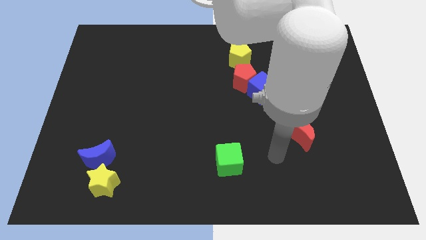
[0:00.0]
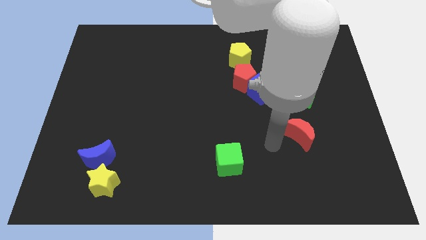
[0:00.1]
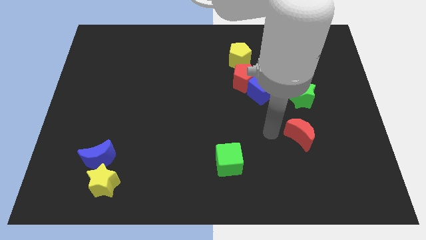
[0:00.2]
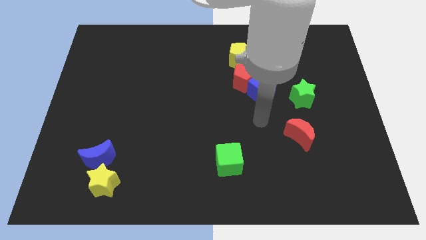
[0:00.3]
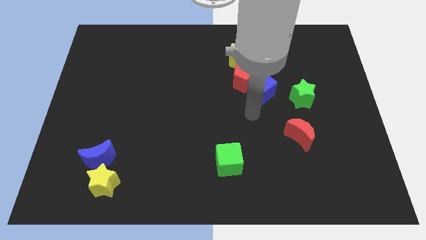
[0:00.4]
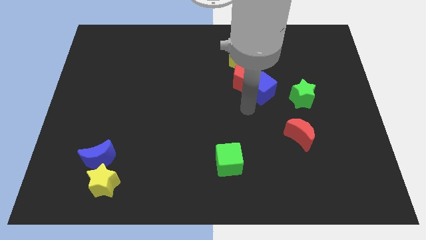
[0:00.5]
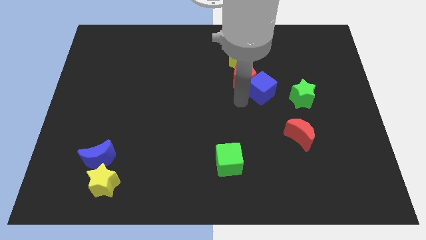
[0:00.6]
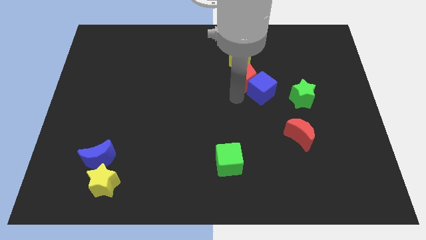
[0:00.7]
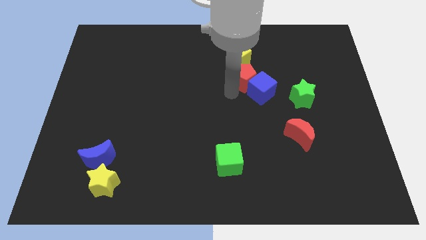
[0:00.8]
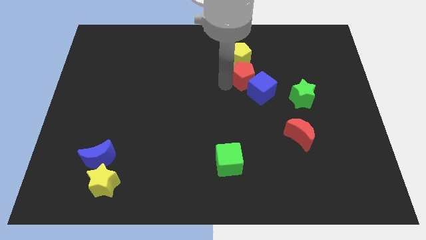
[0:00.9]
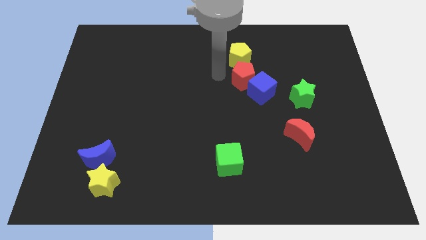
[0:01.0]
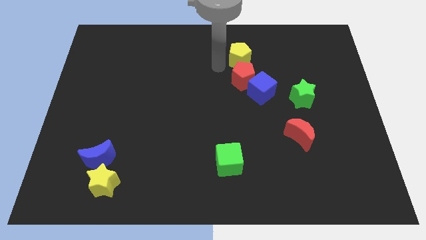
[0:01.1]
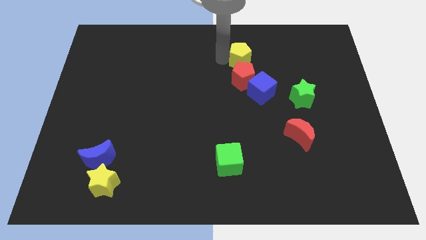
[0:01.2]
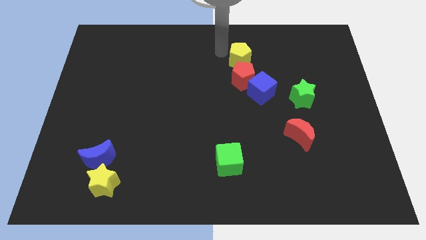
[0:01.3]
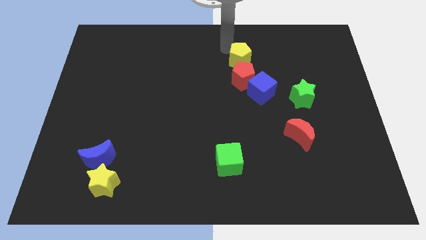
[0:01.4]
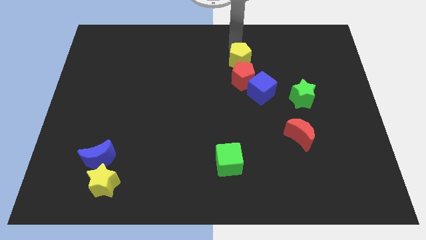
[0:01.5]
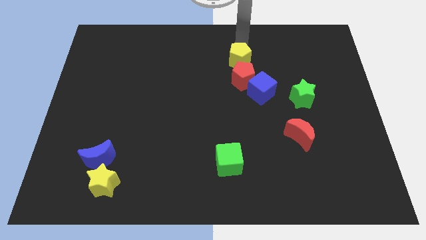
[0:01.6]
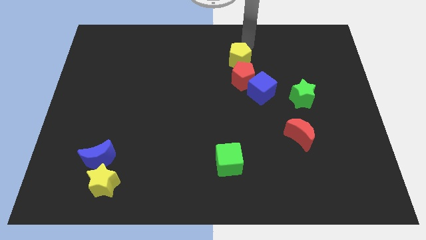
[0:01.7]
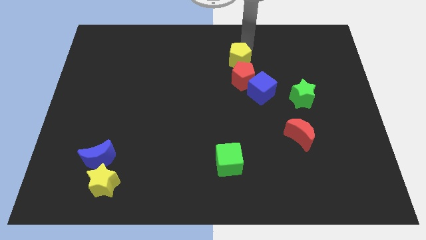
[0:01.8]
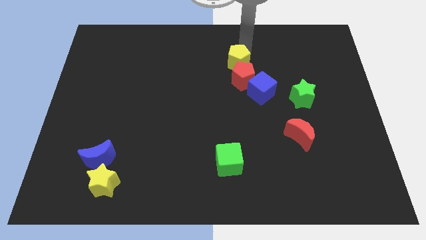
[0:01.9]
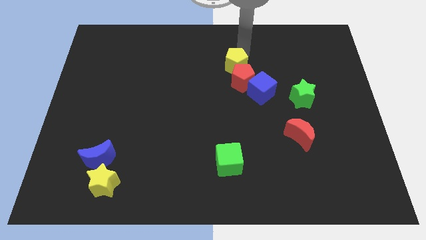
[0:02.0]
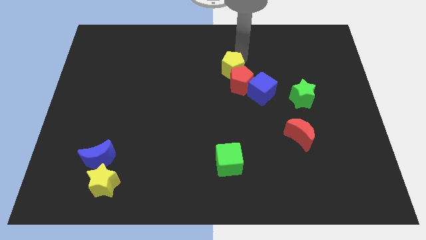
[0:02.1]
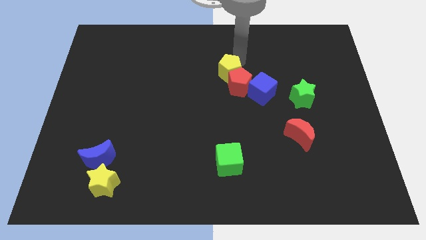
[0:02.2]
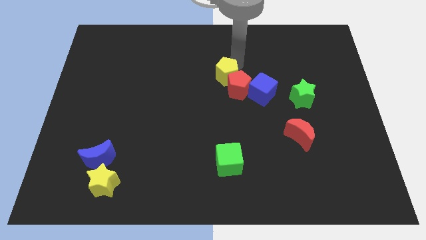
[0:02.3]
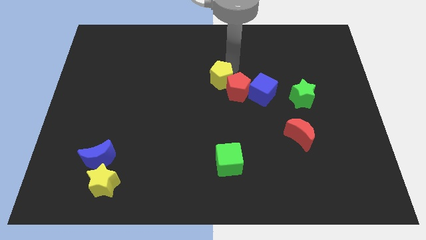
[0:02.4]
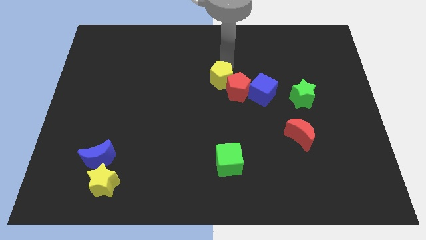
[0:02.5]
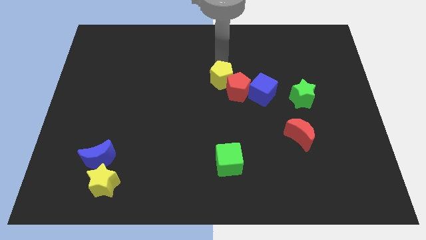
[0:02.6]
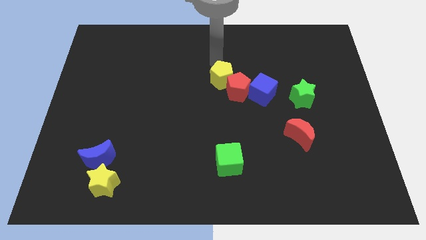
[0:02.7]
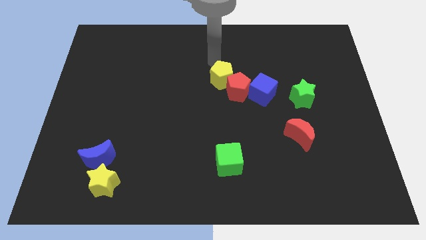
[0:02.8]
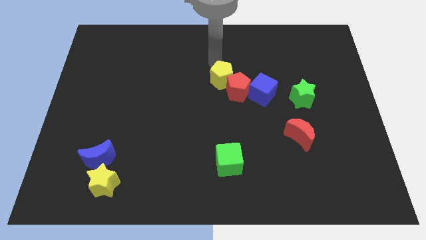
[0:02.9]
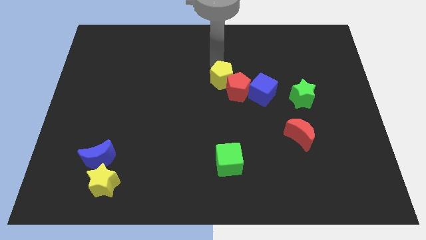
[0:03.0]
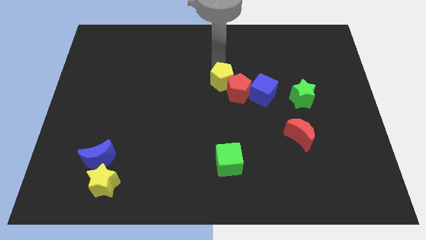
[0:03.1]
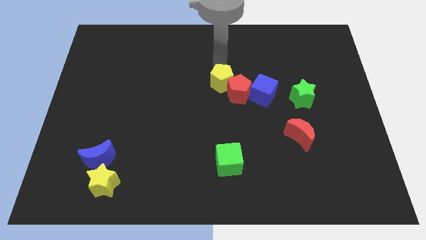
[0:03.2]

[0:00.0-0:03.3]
slightly slide the yellow pentagon downwards

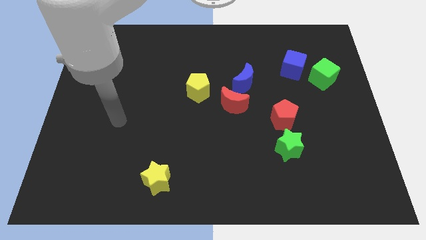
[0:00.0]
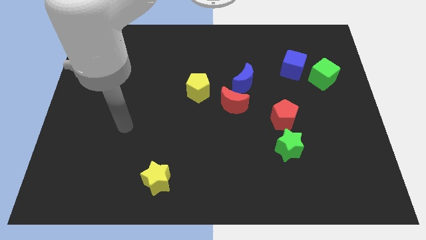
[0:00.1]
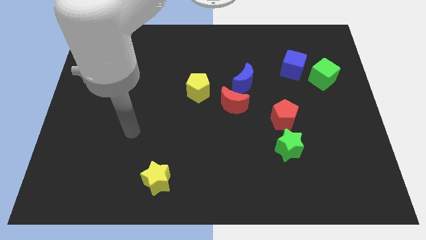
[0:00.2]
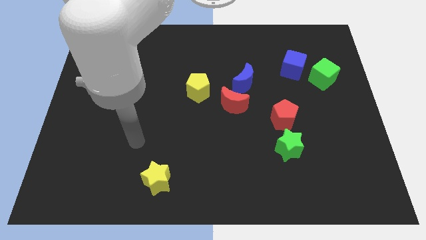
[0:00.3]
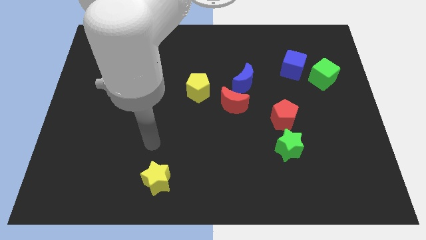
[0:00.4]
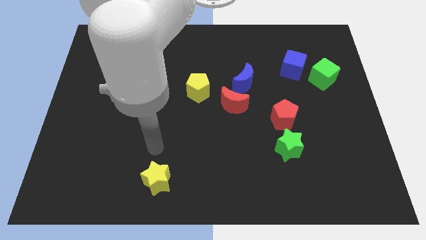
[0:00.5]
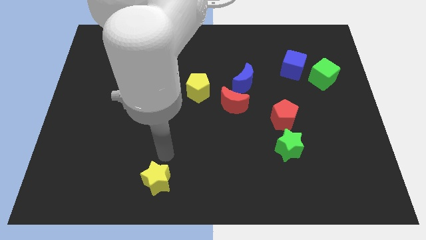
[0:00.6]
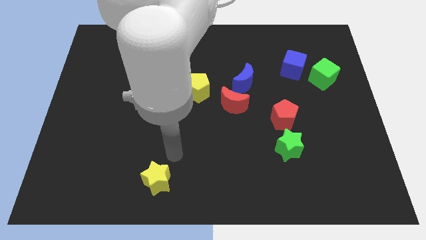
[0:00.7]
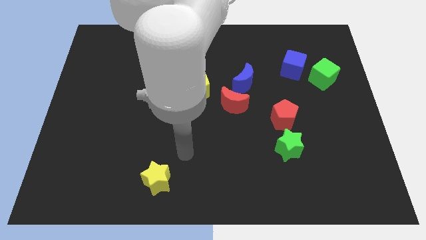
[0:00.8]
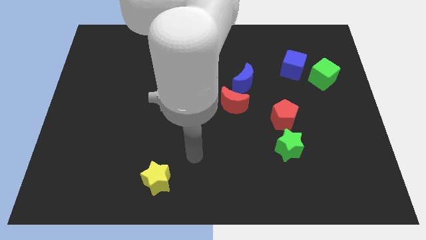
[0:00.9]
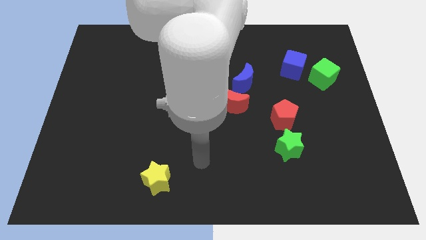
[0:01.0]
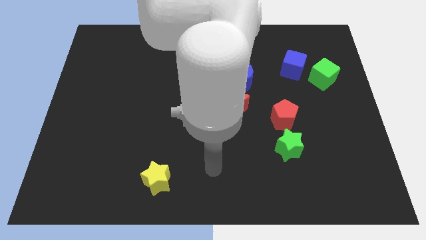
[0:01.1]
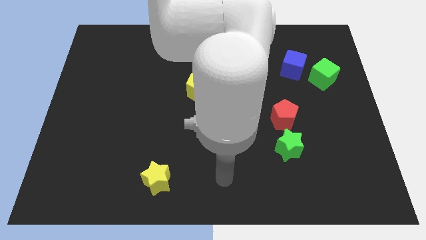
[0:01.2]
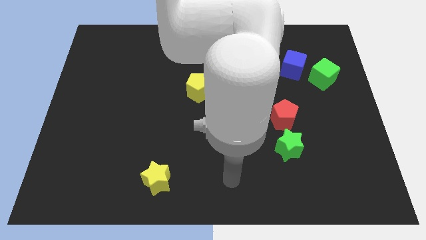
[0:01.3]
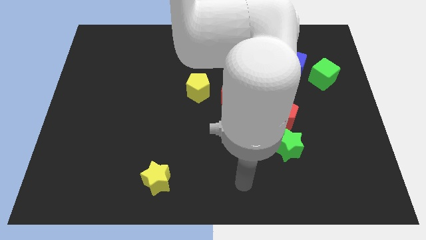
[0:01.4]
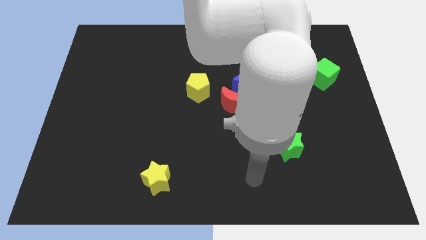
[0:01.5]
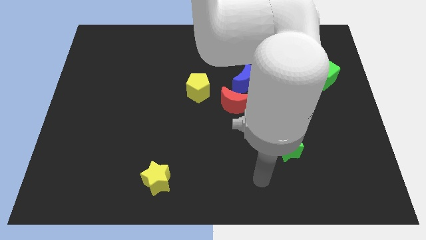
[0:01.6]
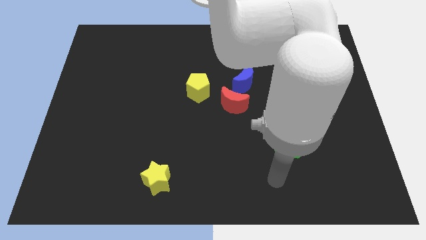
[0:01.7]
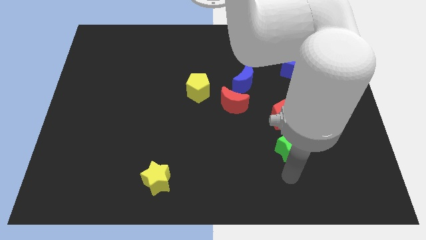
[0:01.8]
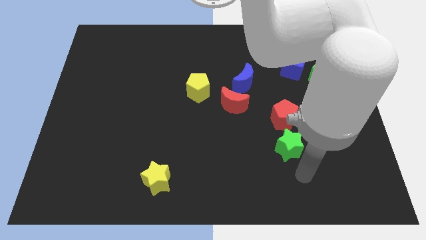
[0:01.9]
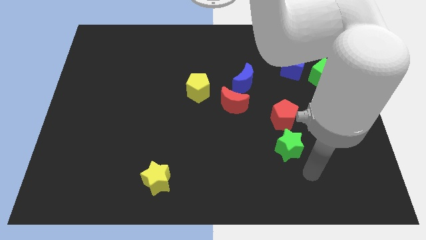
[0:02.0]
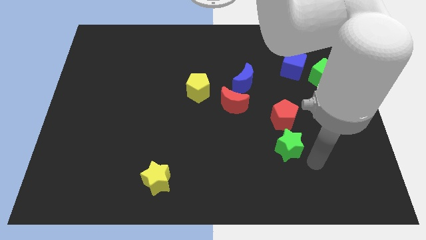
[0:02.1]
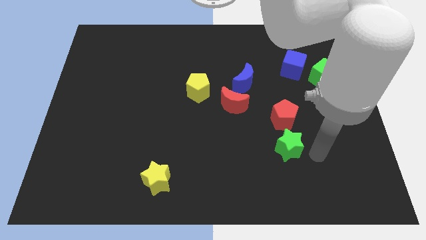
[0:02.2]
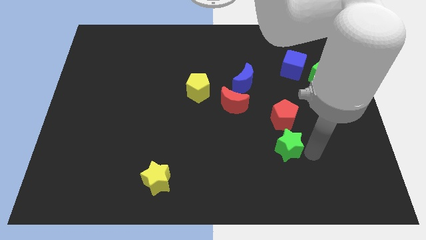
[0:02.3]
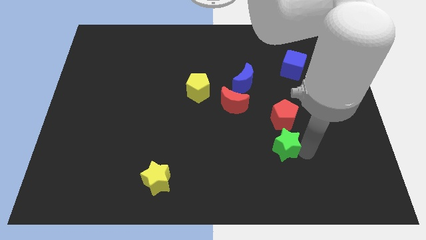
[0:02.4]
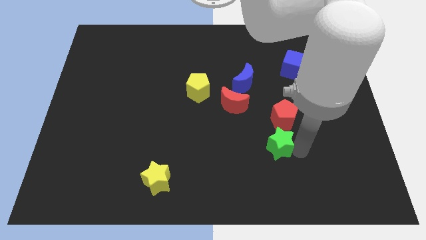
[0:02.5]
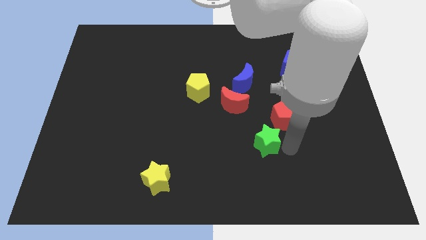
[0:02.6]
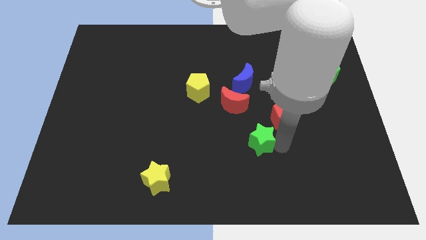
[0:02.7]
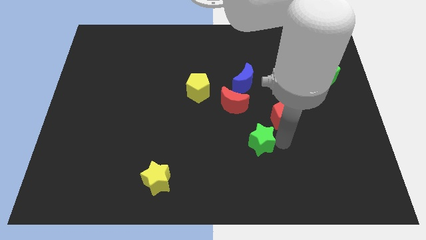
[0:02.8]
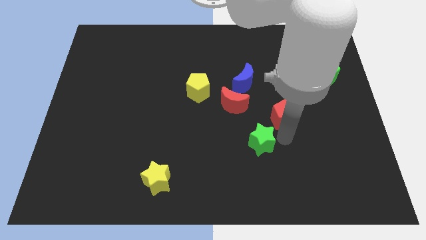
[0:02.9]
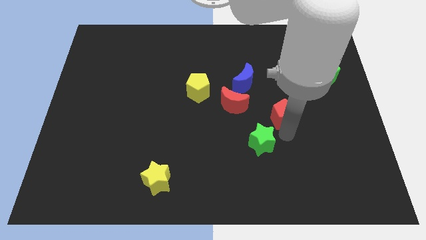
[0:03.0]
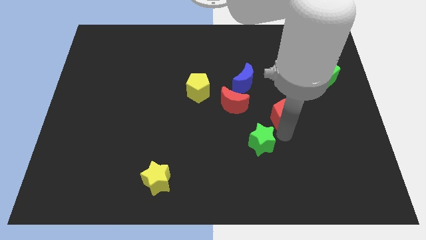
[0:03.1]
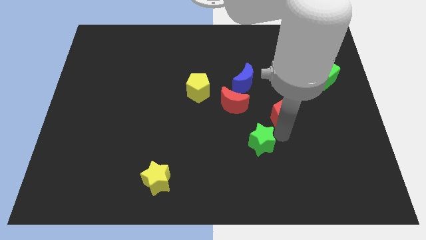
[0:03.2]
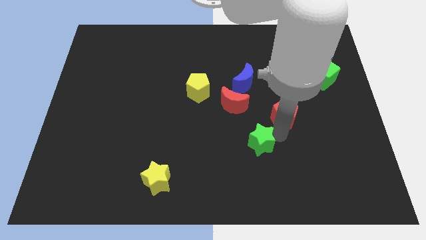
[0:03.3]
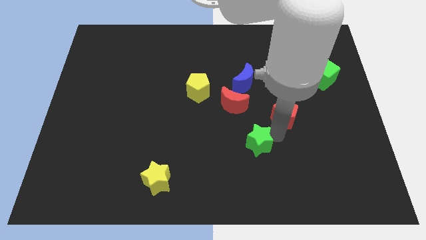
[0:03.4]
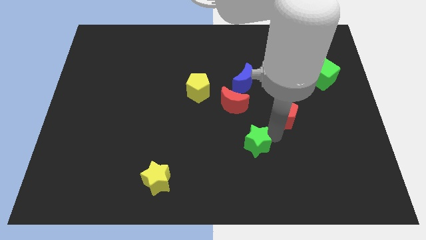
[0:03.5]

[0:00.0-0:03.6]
slide the green star left slightly

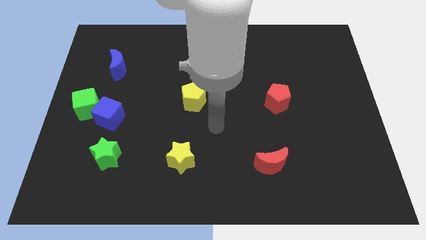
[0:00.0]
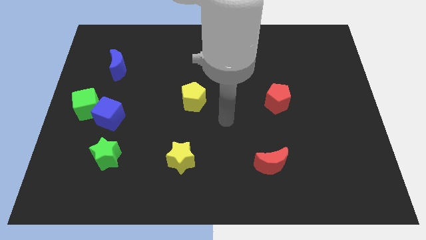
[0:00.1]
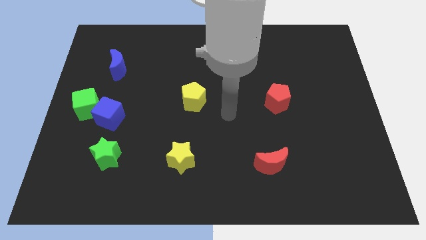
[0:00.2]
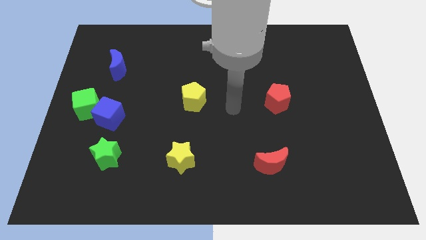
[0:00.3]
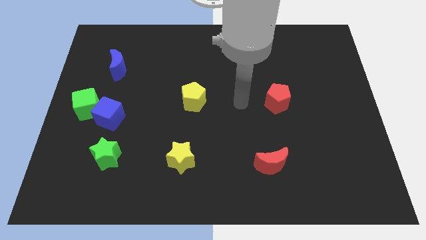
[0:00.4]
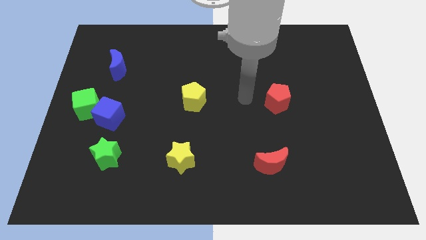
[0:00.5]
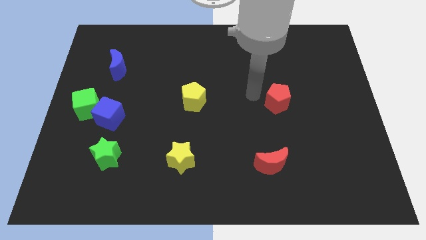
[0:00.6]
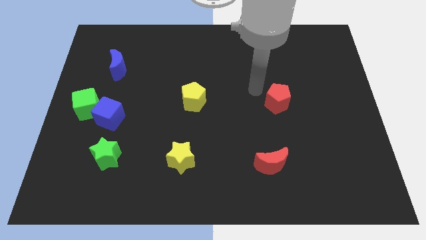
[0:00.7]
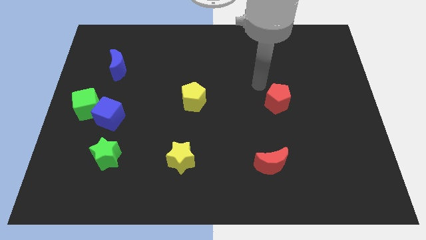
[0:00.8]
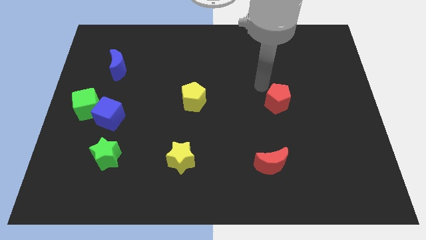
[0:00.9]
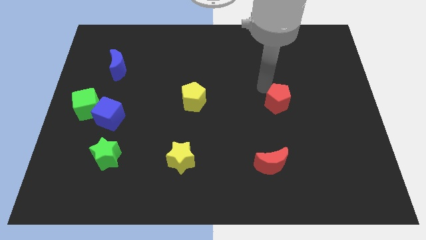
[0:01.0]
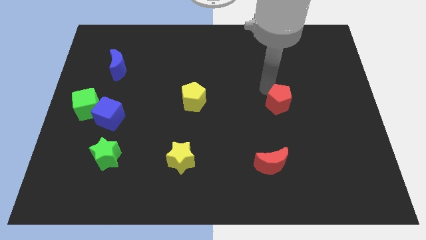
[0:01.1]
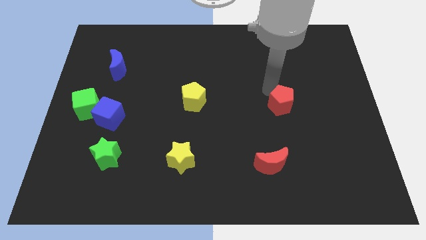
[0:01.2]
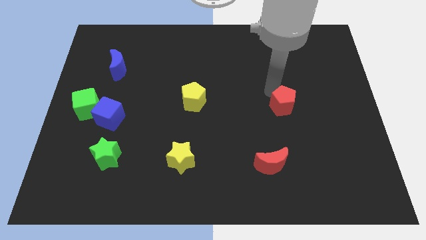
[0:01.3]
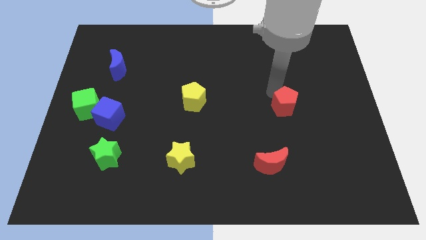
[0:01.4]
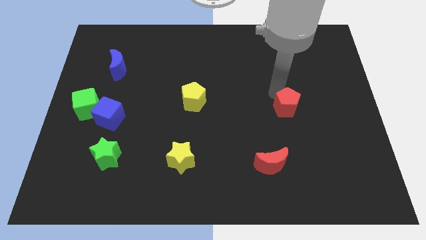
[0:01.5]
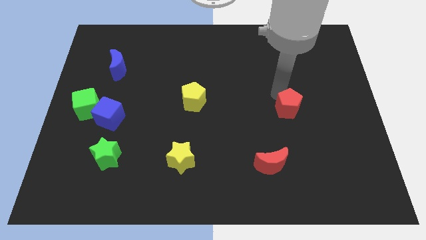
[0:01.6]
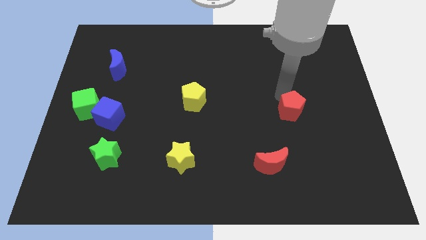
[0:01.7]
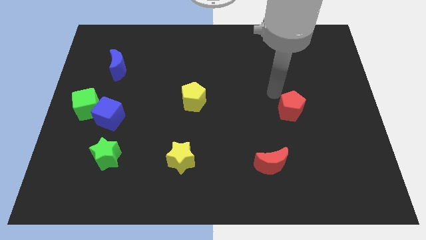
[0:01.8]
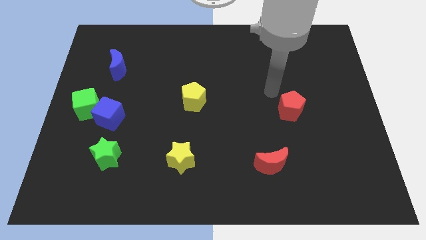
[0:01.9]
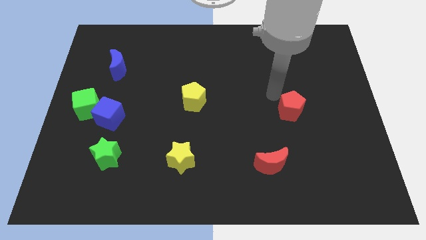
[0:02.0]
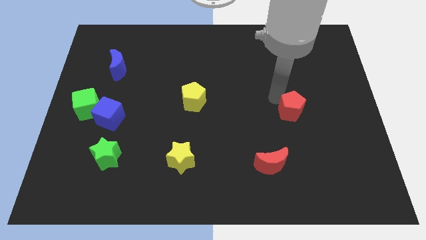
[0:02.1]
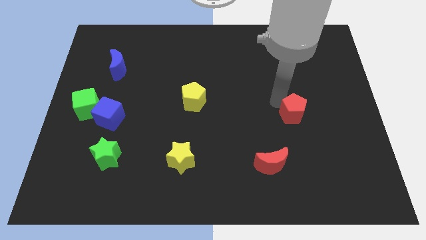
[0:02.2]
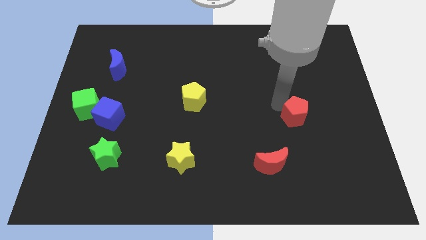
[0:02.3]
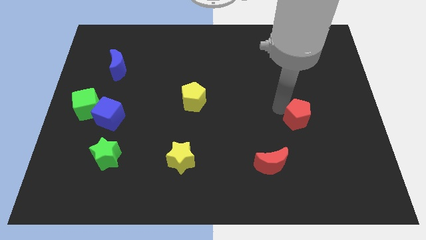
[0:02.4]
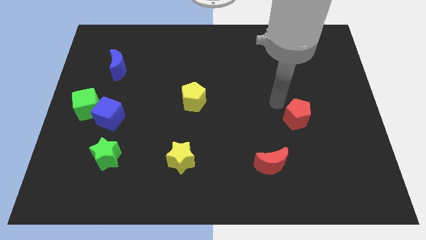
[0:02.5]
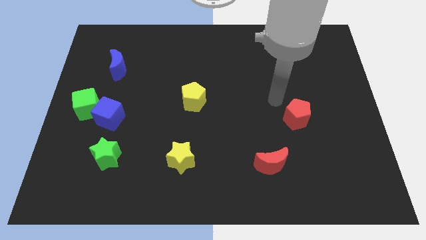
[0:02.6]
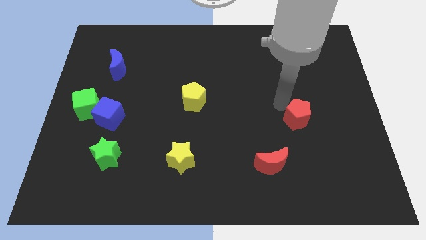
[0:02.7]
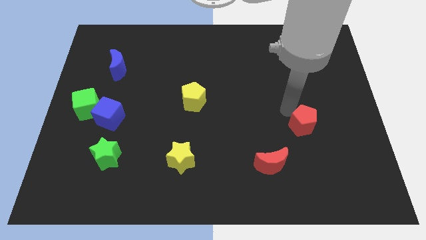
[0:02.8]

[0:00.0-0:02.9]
push the red pentagon down and then to the right a little bit
